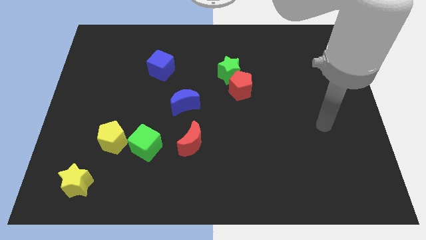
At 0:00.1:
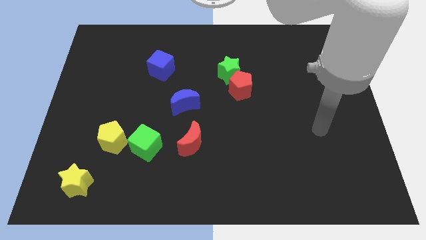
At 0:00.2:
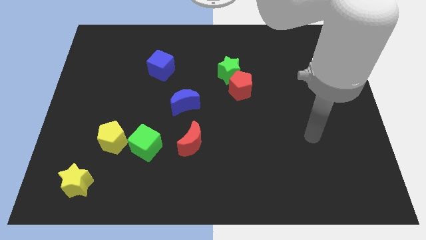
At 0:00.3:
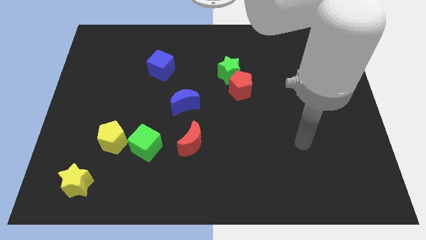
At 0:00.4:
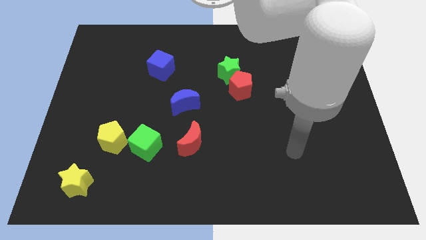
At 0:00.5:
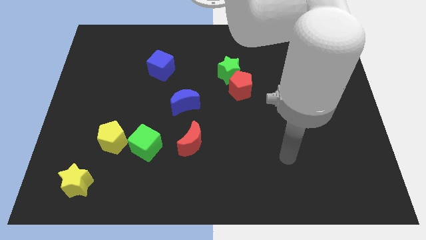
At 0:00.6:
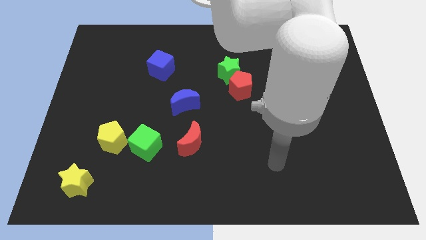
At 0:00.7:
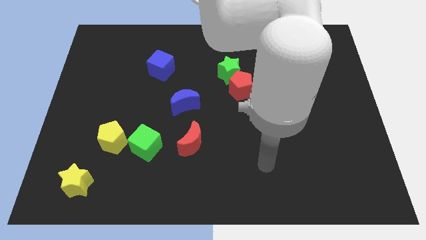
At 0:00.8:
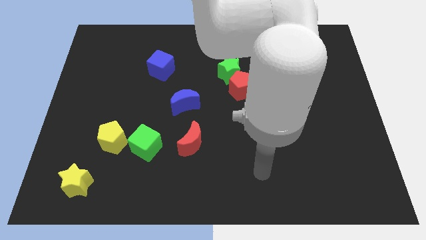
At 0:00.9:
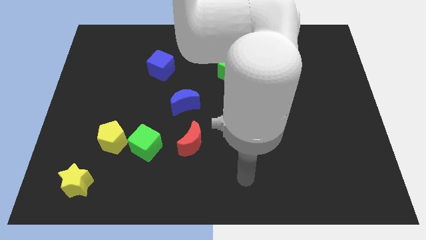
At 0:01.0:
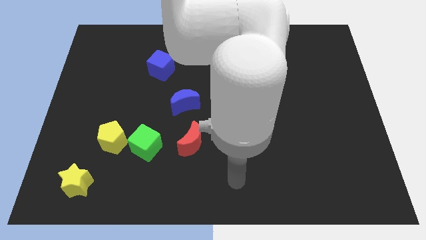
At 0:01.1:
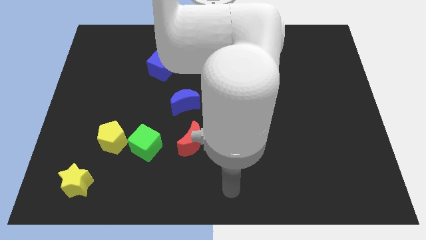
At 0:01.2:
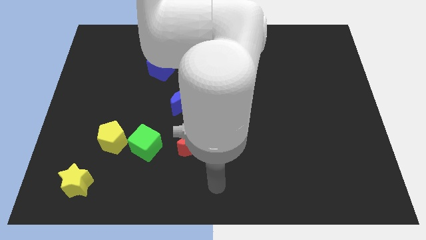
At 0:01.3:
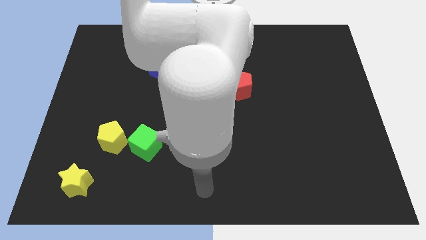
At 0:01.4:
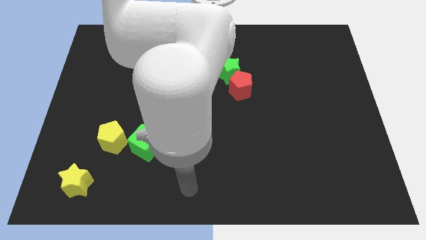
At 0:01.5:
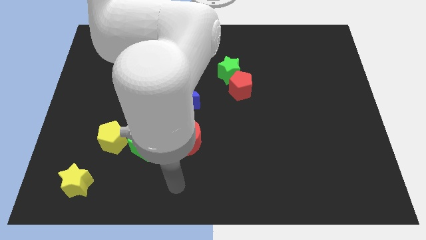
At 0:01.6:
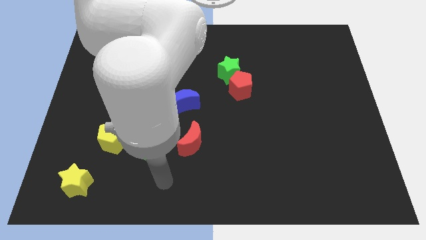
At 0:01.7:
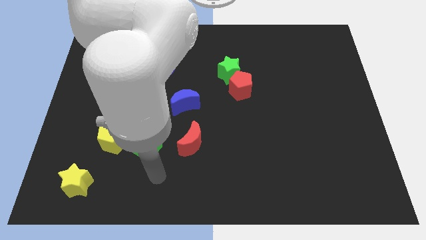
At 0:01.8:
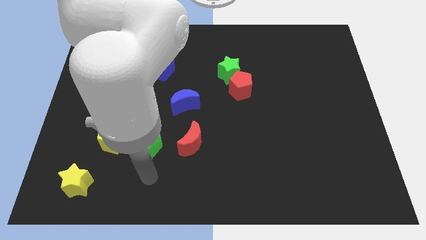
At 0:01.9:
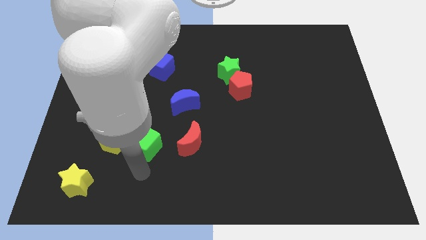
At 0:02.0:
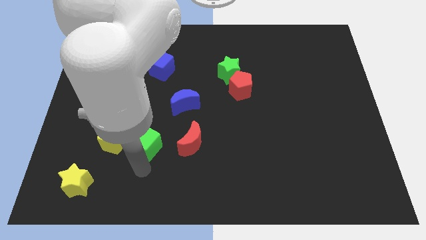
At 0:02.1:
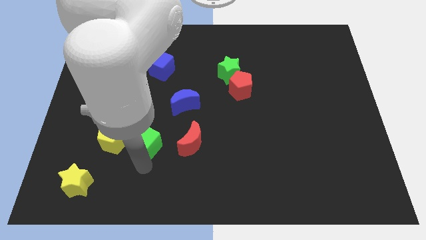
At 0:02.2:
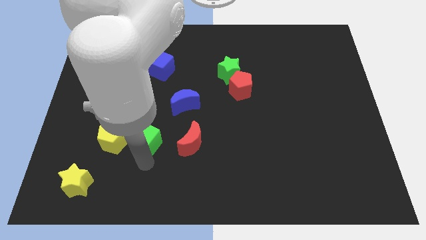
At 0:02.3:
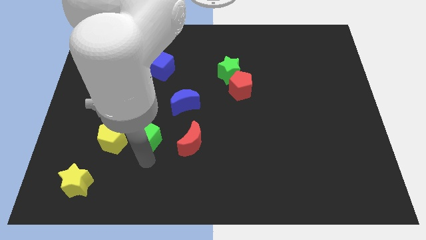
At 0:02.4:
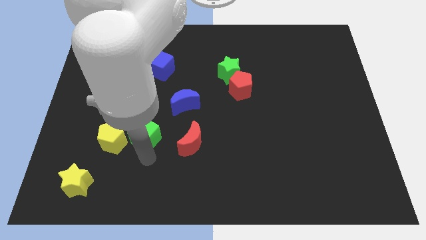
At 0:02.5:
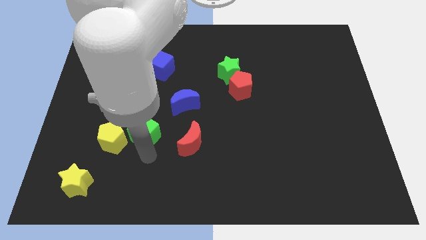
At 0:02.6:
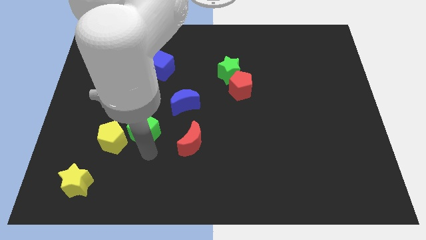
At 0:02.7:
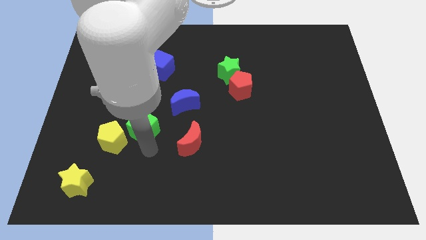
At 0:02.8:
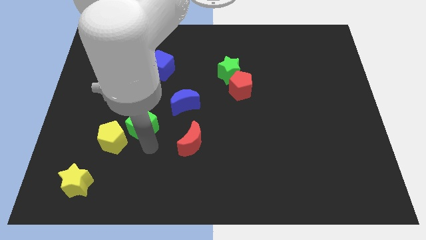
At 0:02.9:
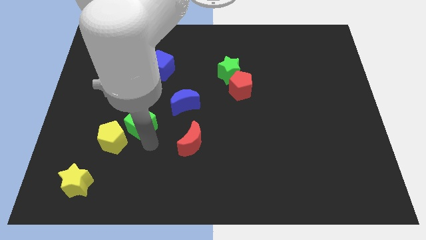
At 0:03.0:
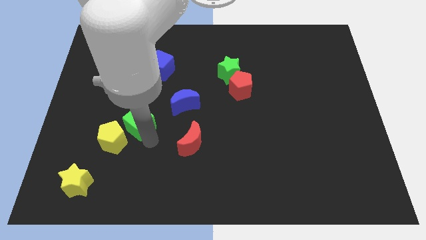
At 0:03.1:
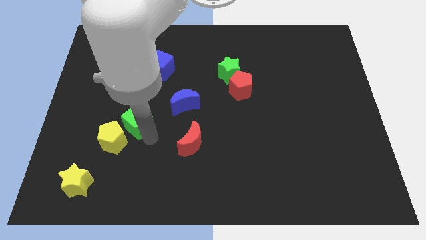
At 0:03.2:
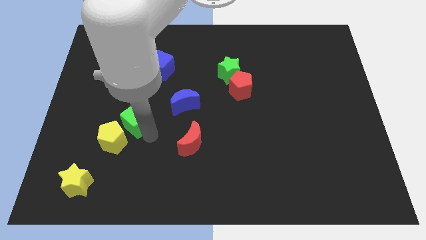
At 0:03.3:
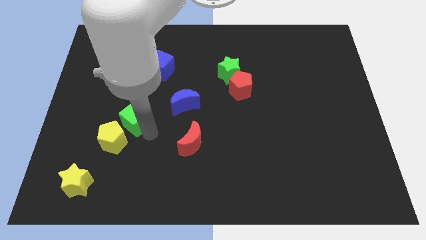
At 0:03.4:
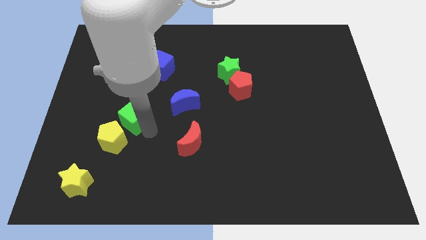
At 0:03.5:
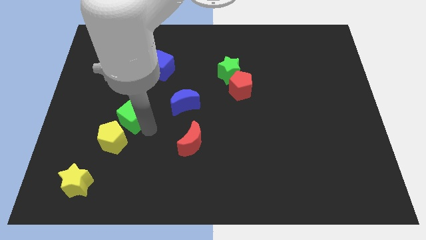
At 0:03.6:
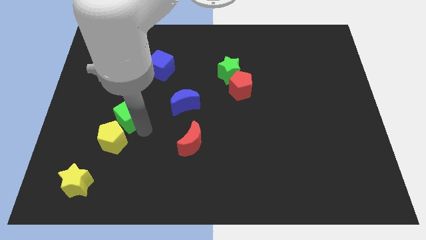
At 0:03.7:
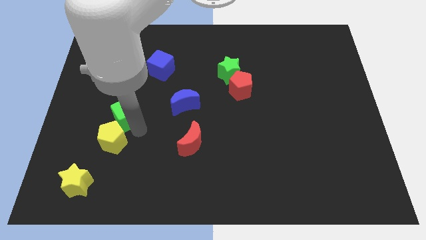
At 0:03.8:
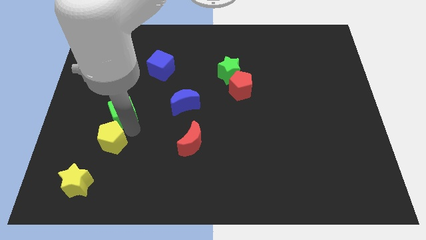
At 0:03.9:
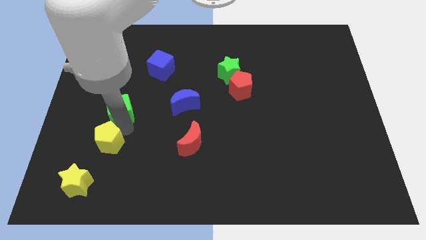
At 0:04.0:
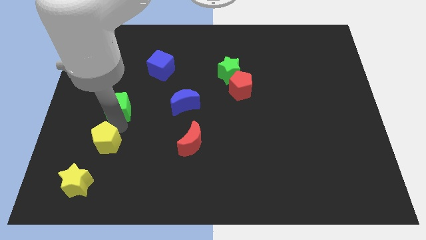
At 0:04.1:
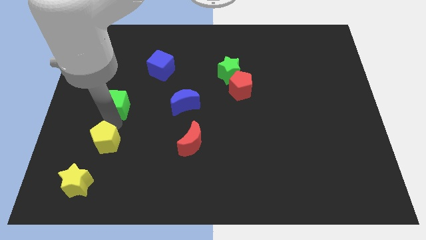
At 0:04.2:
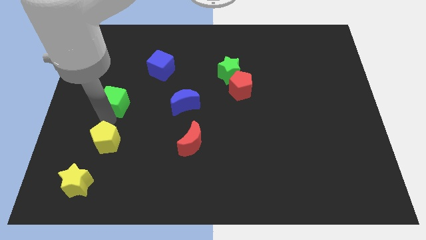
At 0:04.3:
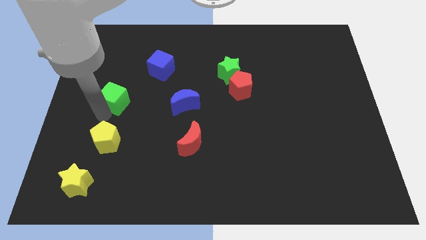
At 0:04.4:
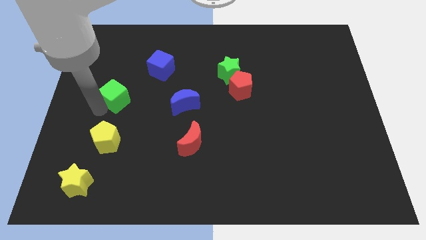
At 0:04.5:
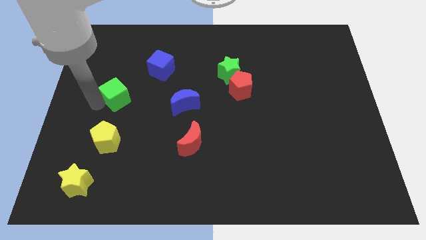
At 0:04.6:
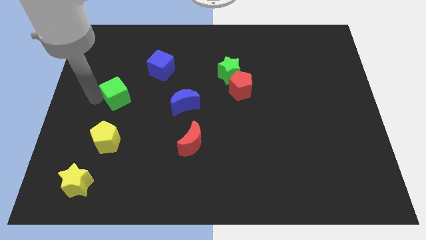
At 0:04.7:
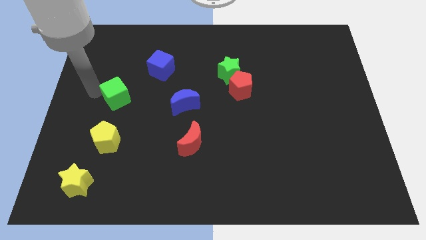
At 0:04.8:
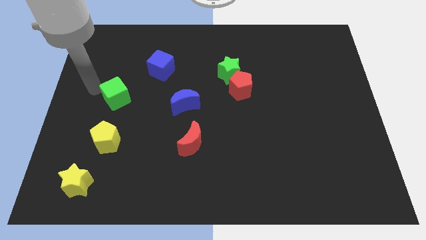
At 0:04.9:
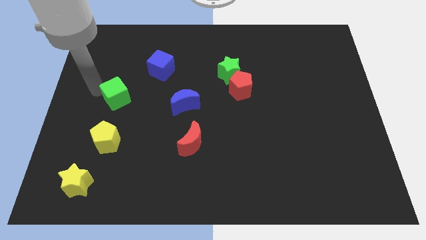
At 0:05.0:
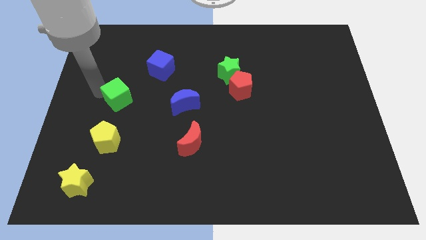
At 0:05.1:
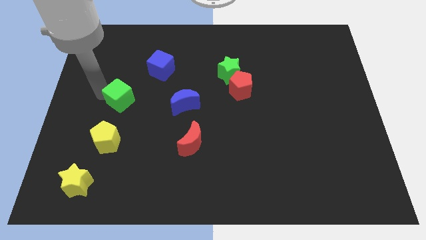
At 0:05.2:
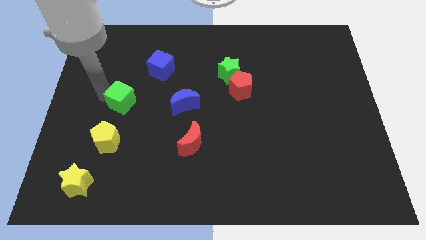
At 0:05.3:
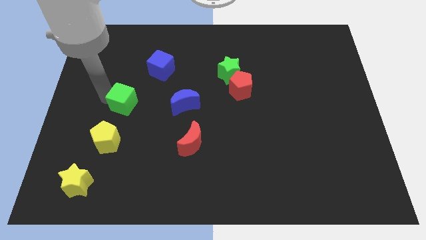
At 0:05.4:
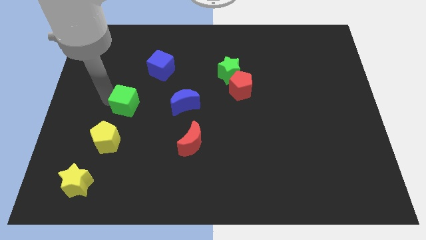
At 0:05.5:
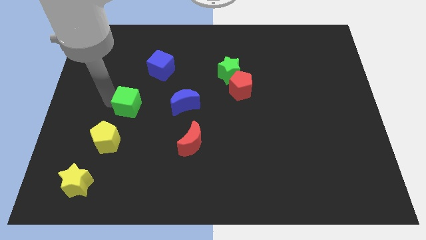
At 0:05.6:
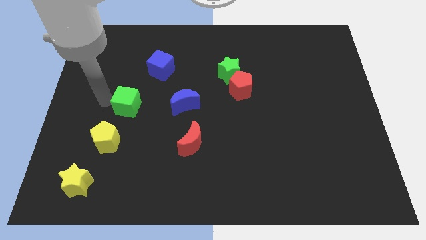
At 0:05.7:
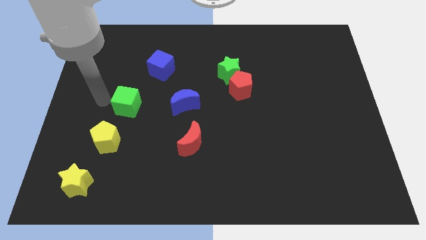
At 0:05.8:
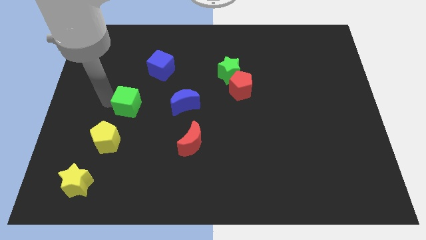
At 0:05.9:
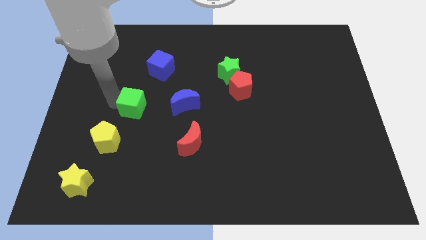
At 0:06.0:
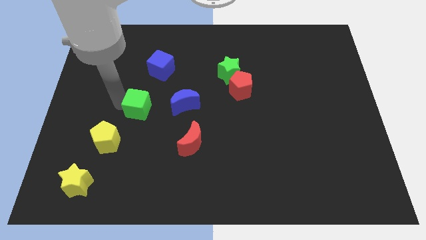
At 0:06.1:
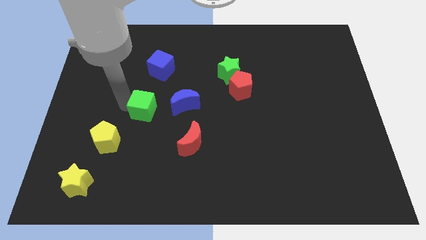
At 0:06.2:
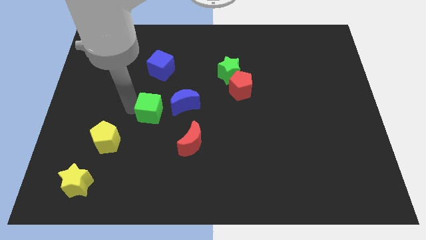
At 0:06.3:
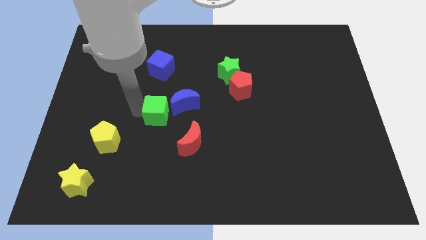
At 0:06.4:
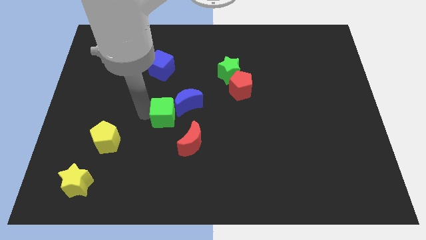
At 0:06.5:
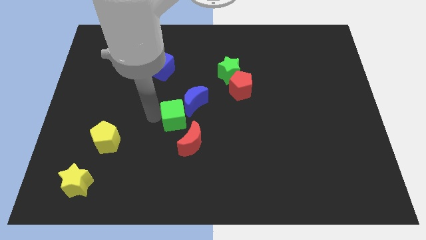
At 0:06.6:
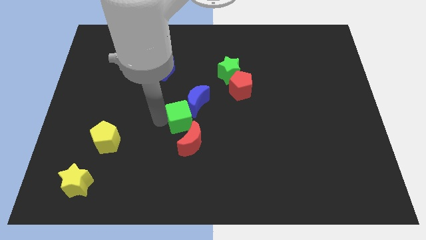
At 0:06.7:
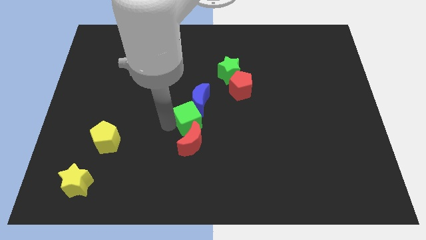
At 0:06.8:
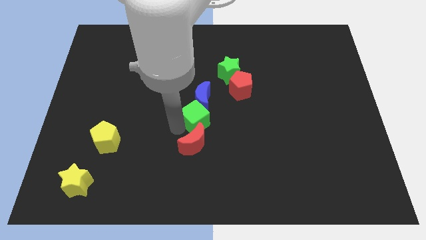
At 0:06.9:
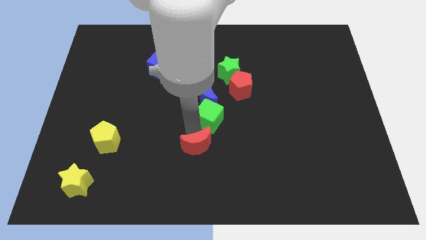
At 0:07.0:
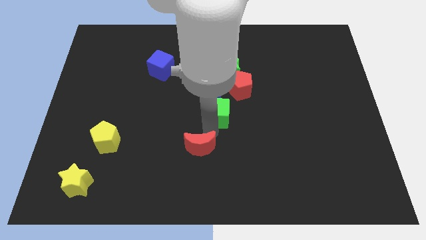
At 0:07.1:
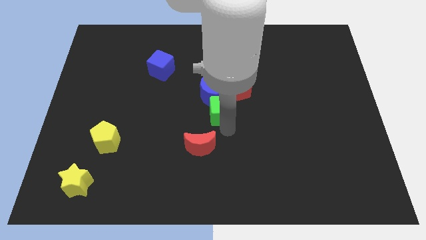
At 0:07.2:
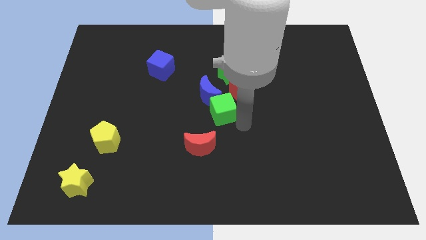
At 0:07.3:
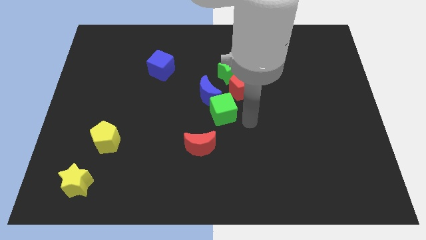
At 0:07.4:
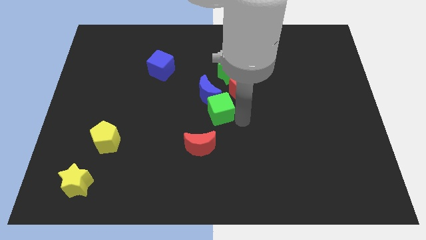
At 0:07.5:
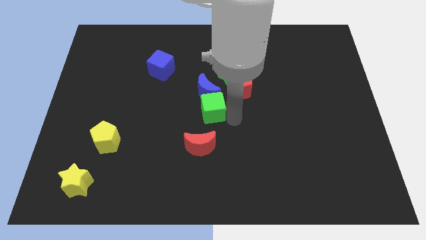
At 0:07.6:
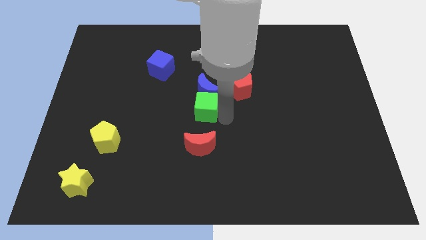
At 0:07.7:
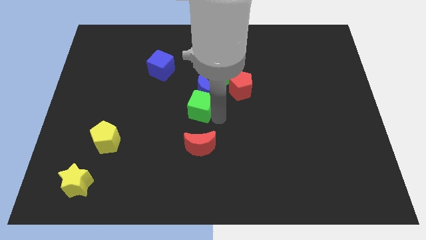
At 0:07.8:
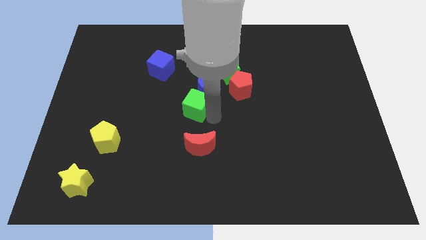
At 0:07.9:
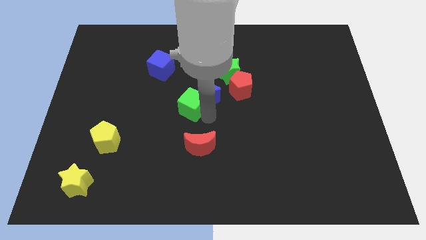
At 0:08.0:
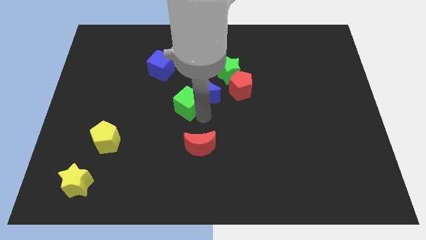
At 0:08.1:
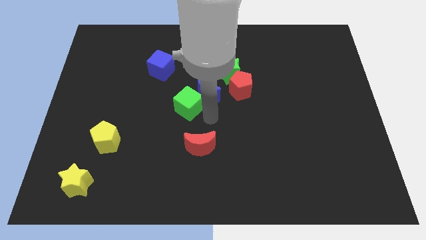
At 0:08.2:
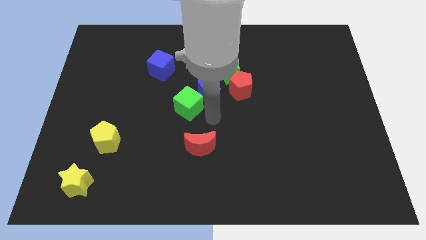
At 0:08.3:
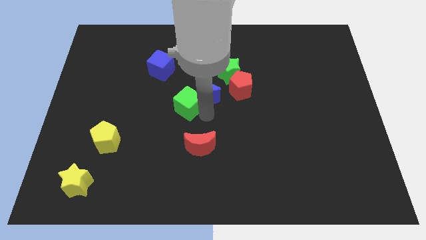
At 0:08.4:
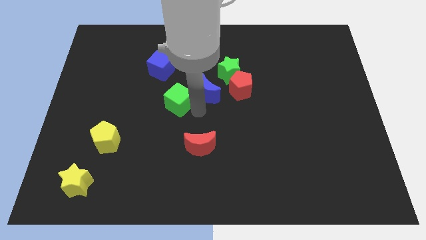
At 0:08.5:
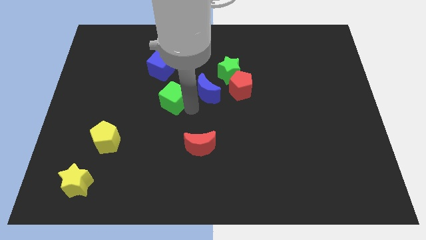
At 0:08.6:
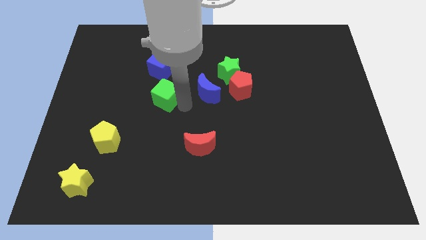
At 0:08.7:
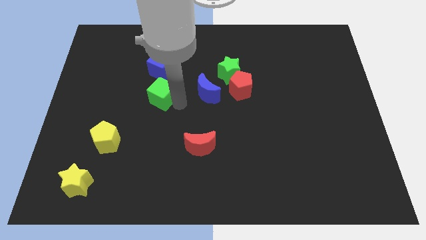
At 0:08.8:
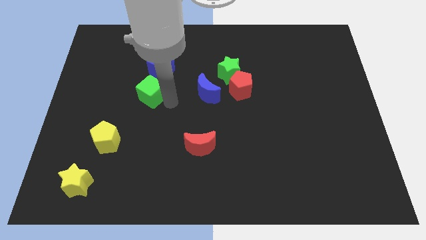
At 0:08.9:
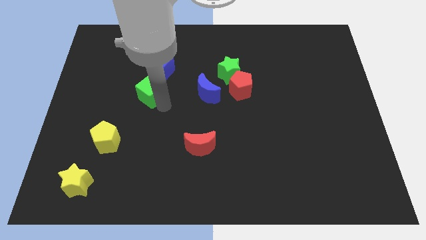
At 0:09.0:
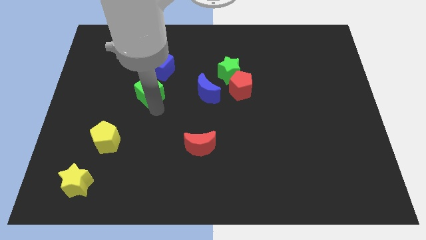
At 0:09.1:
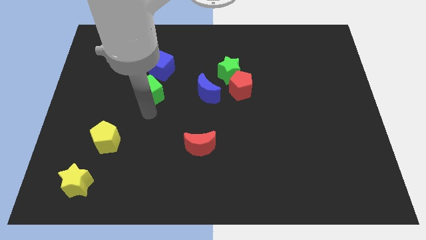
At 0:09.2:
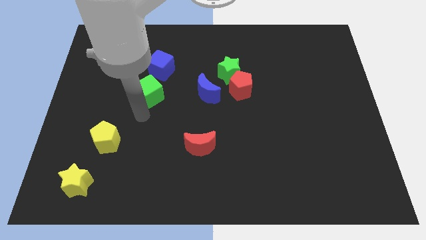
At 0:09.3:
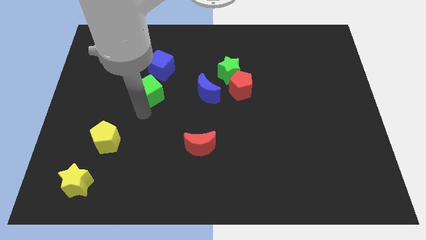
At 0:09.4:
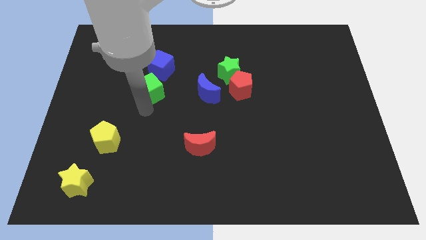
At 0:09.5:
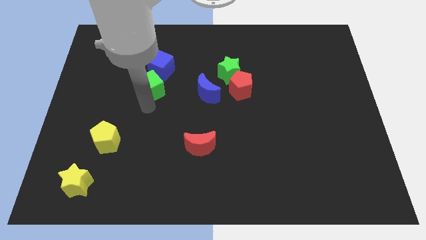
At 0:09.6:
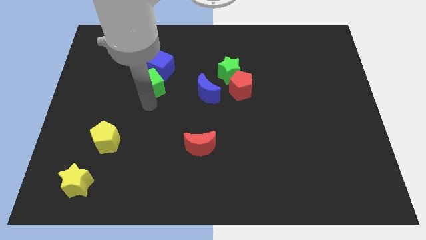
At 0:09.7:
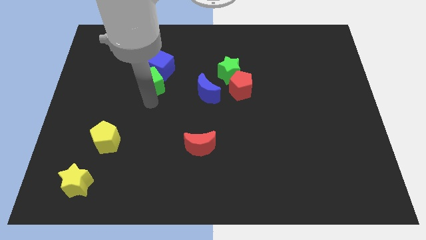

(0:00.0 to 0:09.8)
put the green cube towards the blue cube
